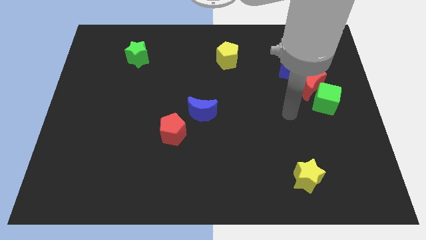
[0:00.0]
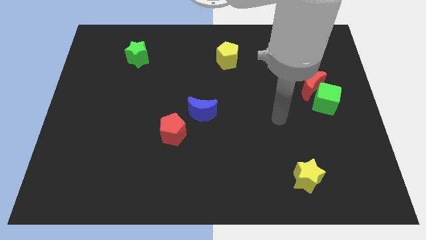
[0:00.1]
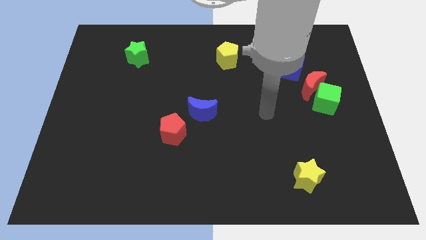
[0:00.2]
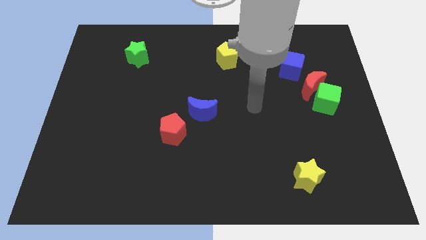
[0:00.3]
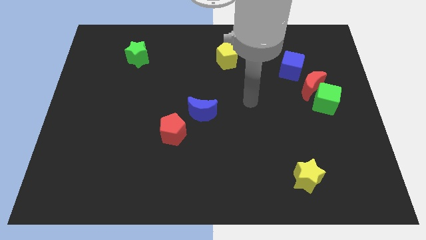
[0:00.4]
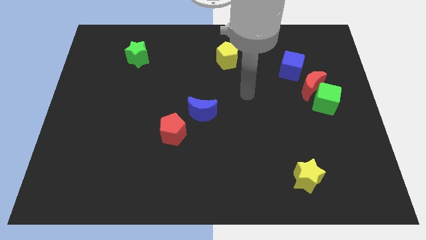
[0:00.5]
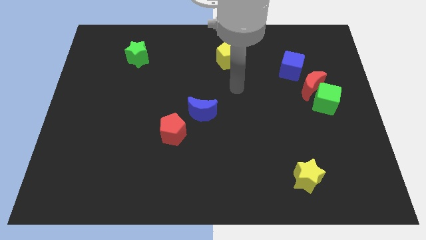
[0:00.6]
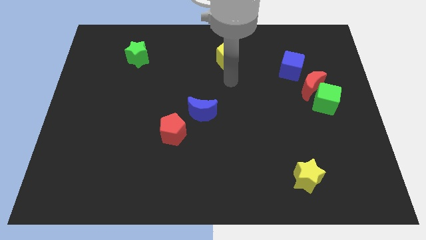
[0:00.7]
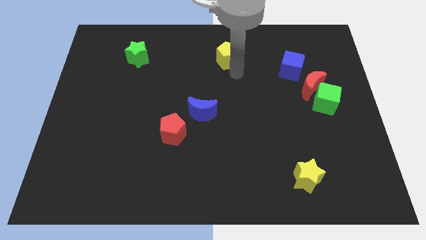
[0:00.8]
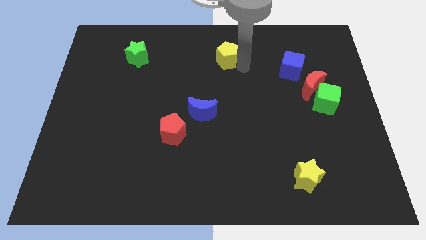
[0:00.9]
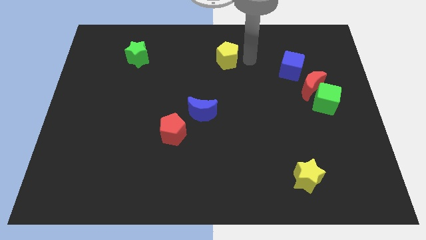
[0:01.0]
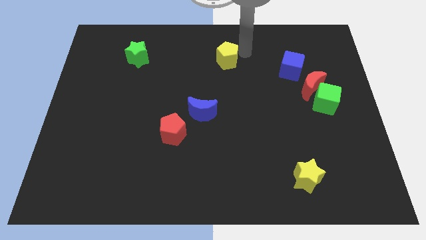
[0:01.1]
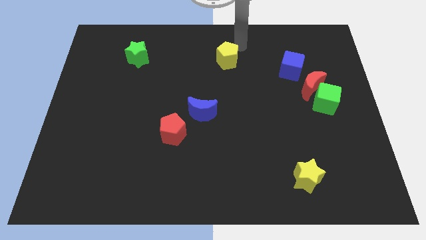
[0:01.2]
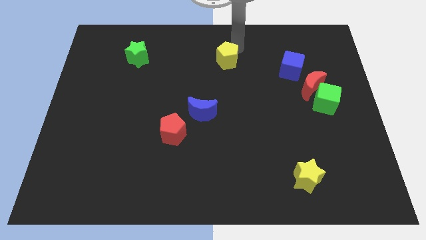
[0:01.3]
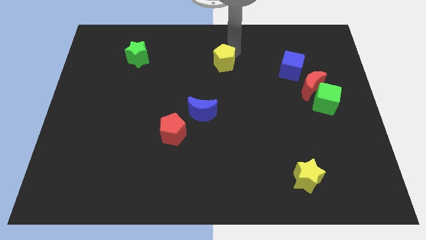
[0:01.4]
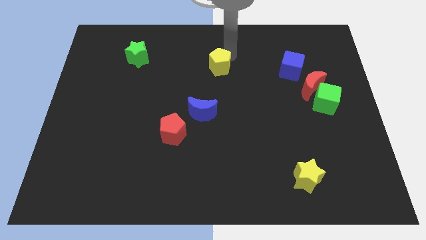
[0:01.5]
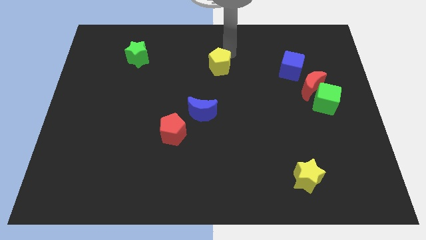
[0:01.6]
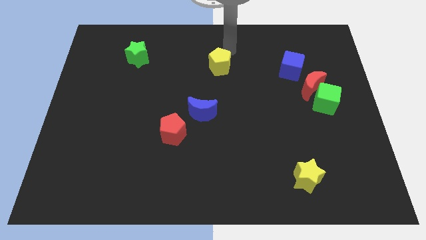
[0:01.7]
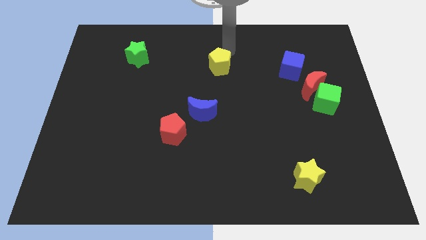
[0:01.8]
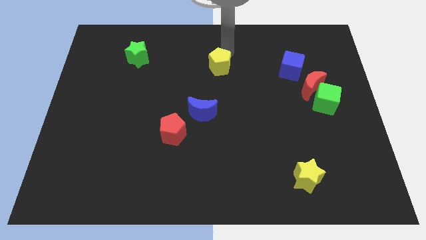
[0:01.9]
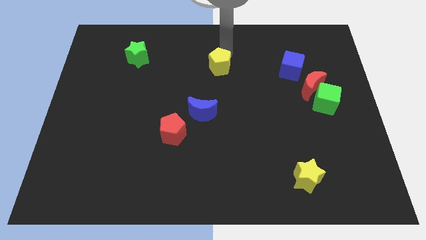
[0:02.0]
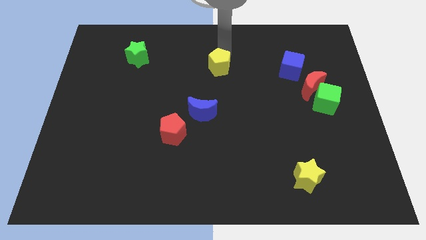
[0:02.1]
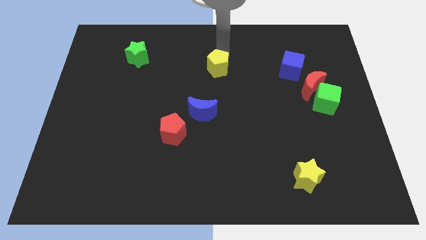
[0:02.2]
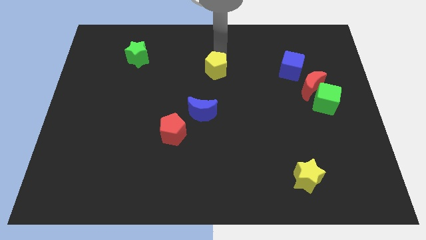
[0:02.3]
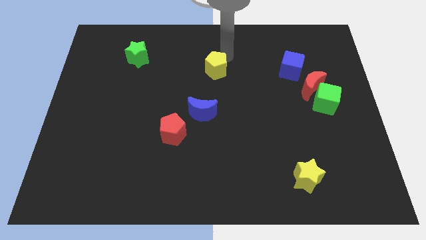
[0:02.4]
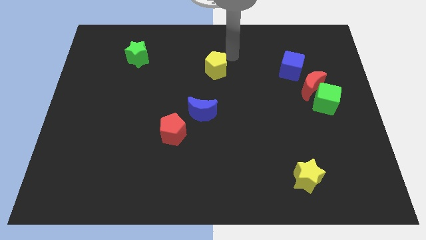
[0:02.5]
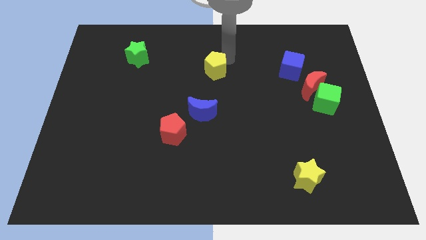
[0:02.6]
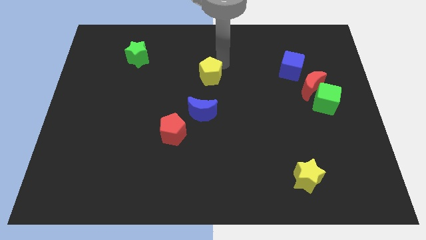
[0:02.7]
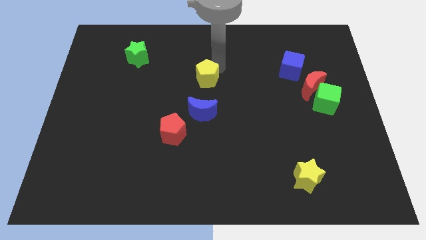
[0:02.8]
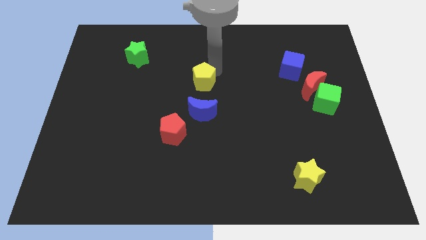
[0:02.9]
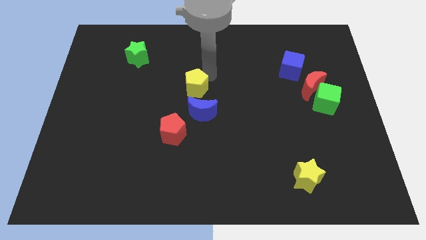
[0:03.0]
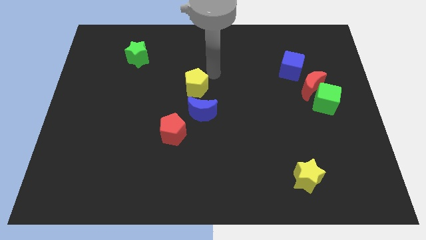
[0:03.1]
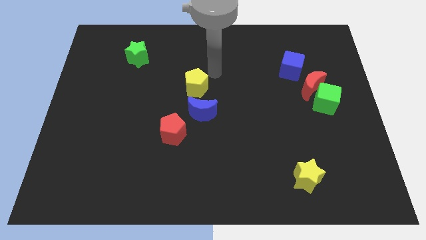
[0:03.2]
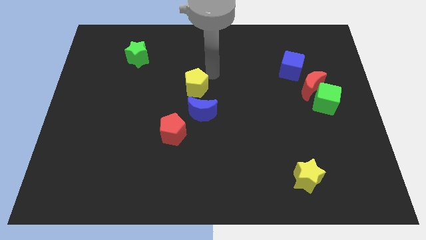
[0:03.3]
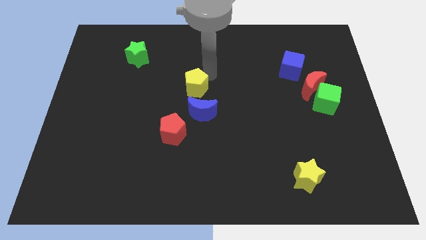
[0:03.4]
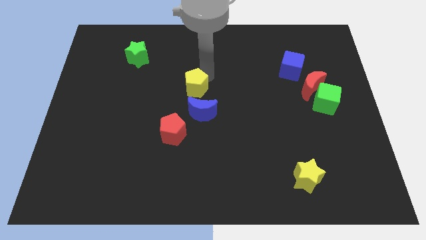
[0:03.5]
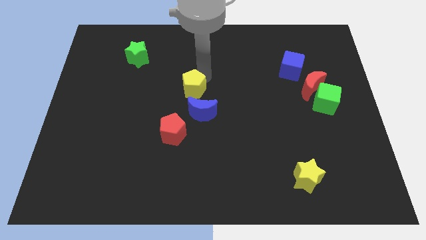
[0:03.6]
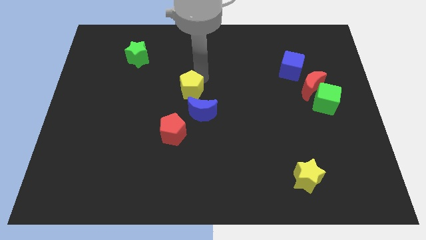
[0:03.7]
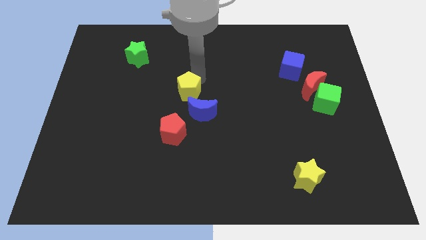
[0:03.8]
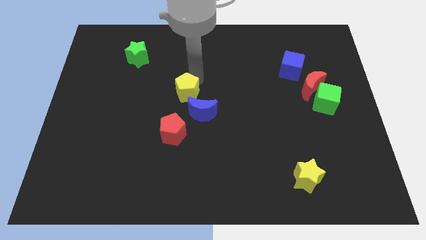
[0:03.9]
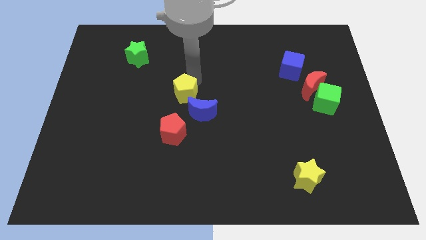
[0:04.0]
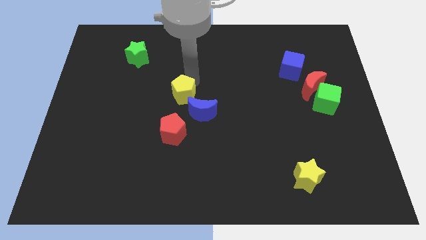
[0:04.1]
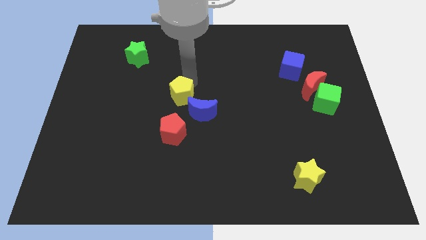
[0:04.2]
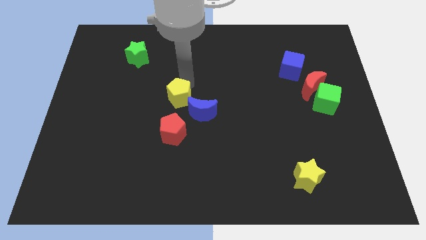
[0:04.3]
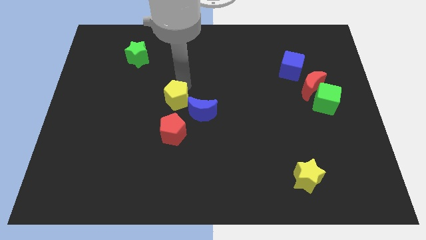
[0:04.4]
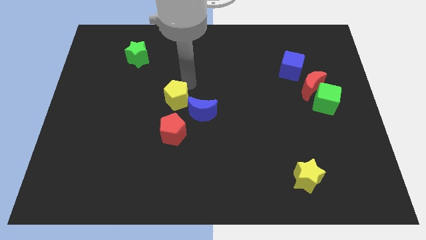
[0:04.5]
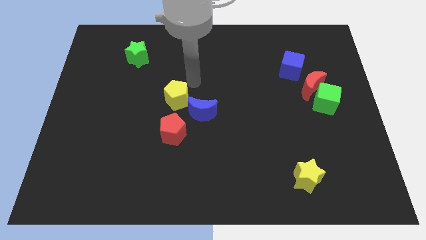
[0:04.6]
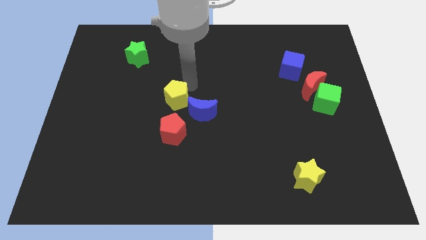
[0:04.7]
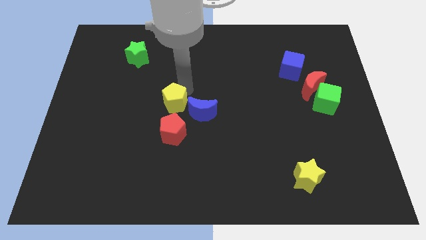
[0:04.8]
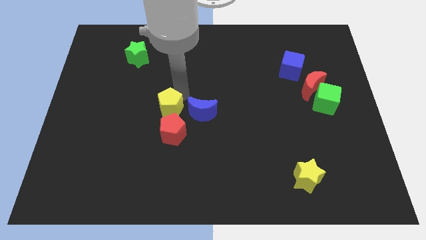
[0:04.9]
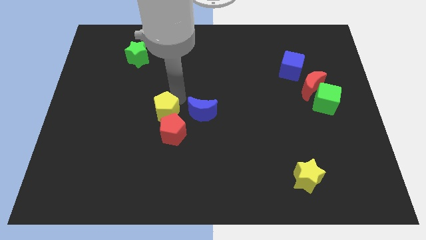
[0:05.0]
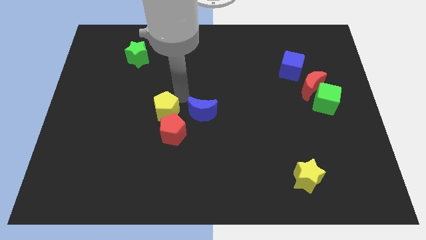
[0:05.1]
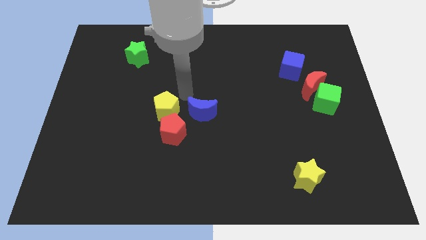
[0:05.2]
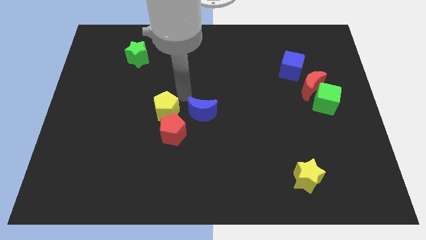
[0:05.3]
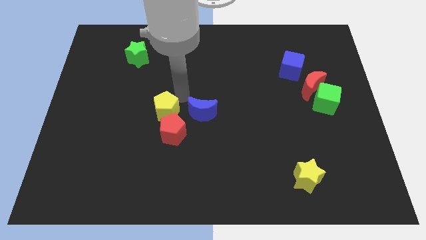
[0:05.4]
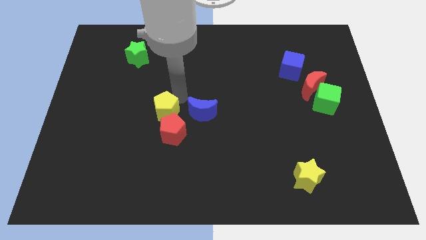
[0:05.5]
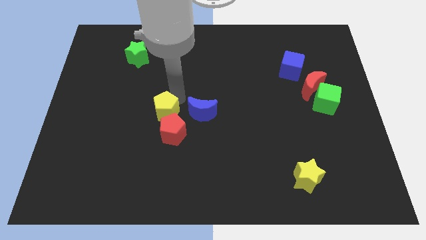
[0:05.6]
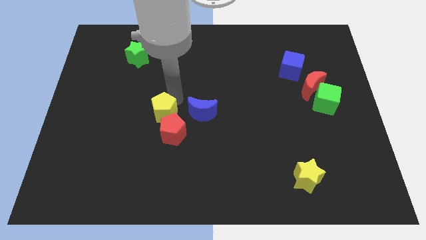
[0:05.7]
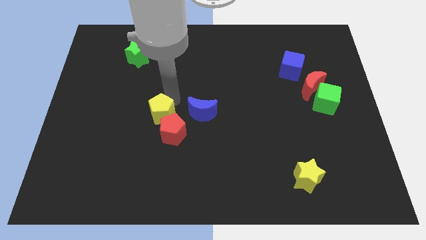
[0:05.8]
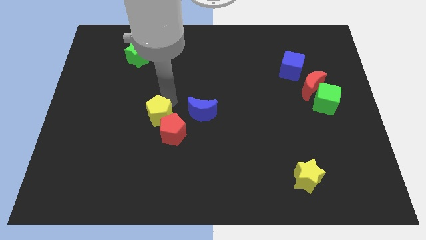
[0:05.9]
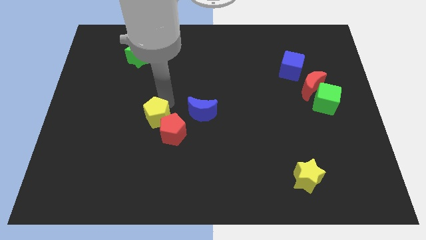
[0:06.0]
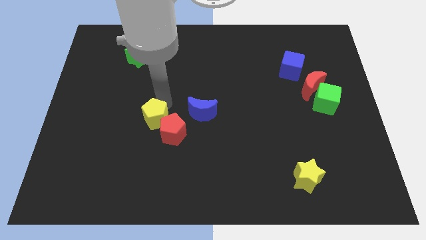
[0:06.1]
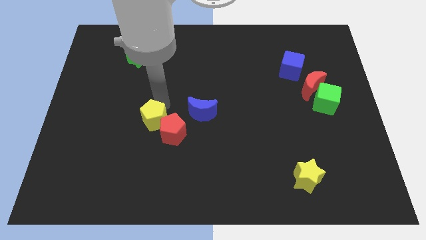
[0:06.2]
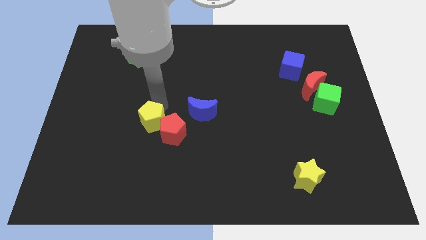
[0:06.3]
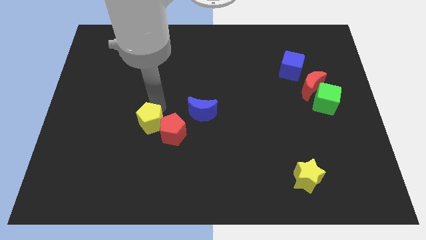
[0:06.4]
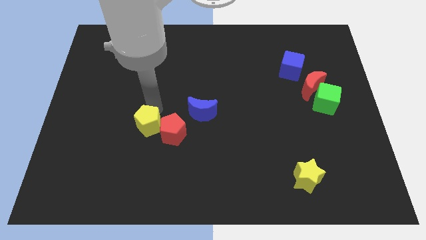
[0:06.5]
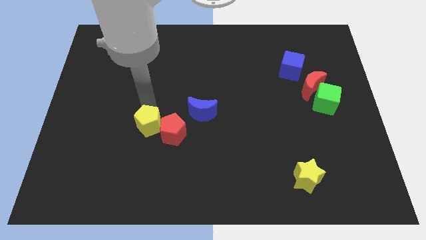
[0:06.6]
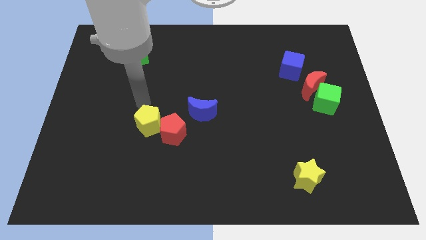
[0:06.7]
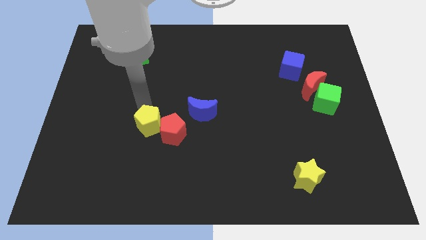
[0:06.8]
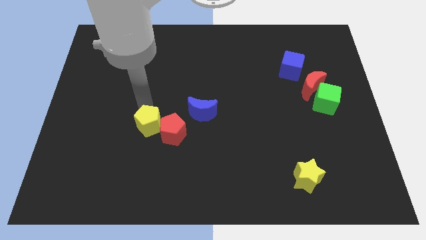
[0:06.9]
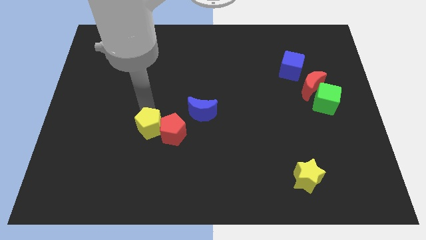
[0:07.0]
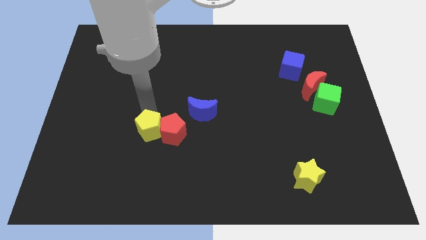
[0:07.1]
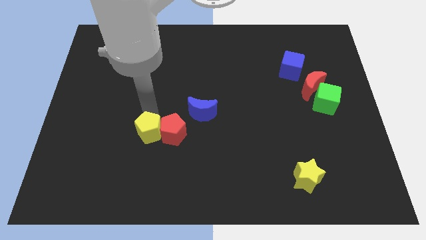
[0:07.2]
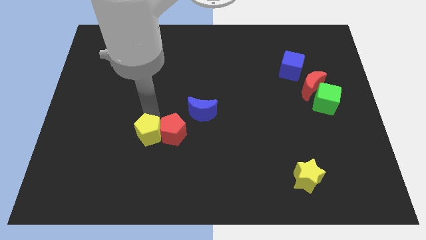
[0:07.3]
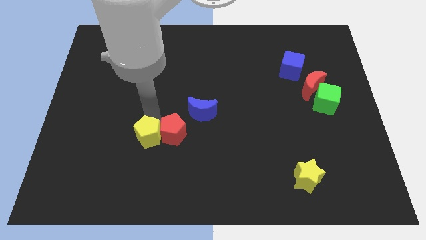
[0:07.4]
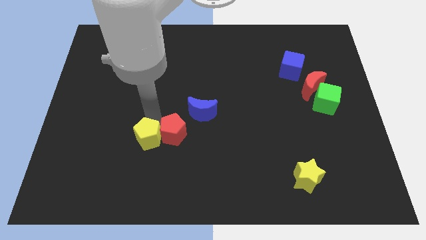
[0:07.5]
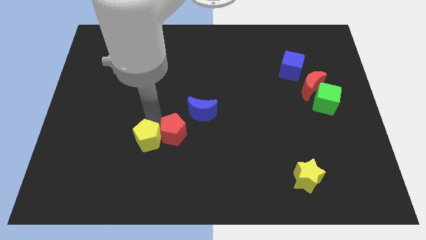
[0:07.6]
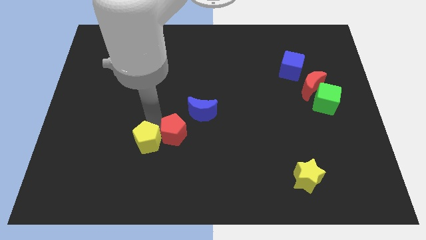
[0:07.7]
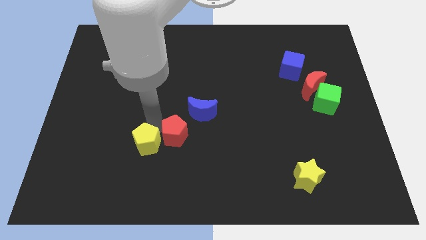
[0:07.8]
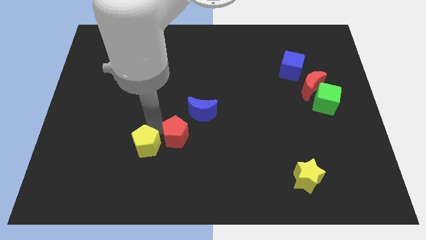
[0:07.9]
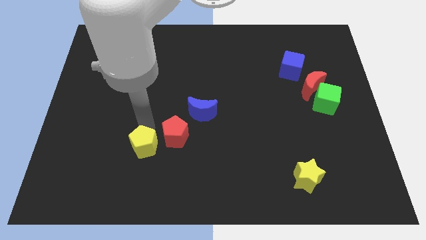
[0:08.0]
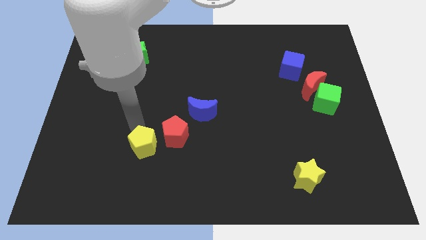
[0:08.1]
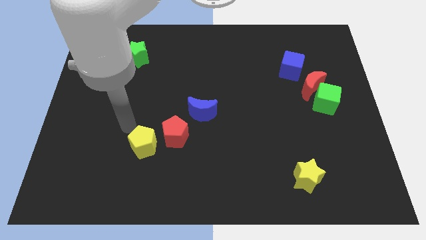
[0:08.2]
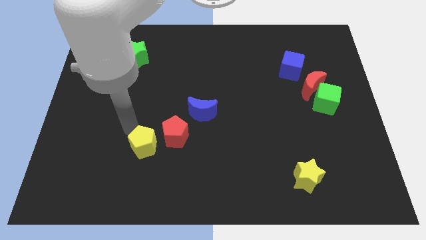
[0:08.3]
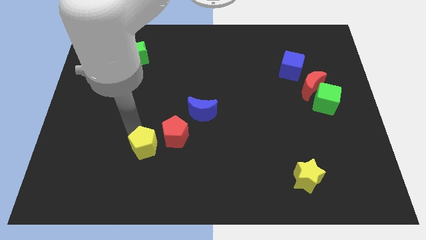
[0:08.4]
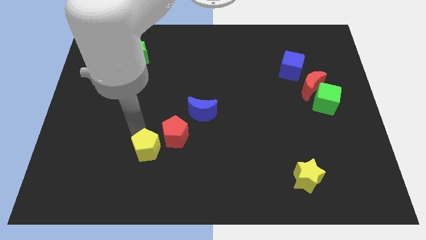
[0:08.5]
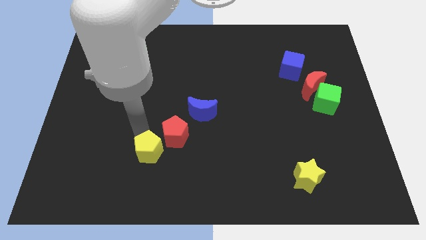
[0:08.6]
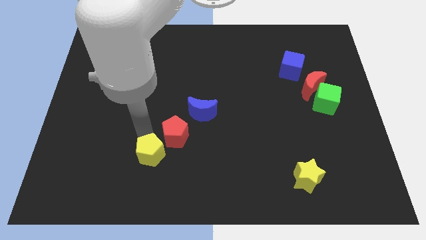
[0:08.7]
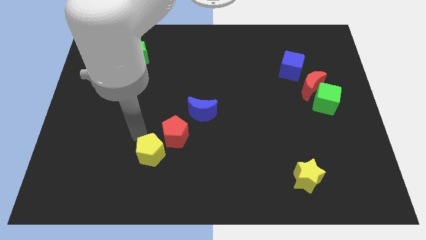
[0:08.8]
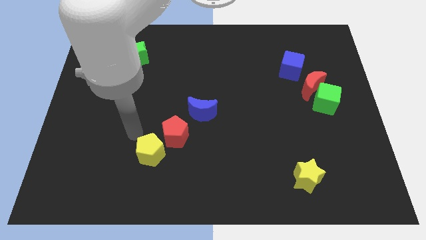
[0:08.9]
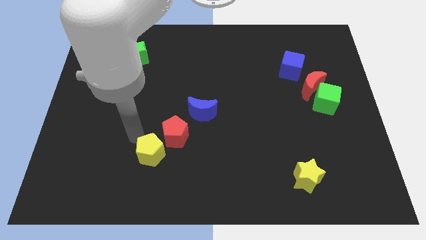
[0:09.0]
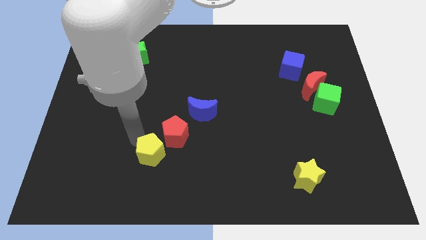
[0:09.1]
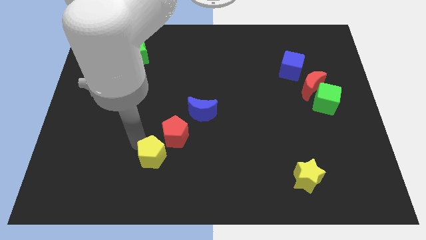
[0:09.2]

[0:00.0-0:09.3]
push the yellow pentagon to the bottom side of the red pentagon
